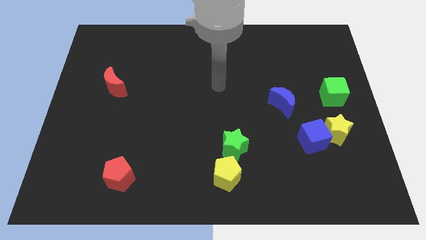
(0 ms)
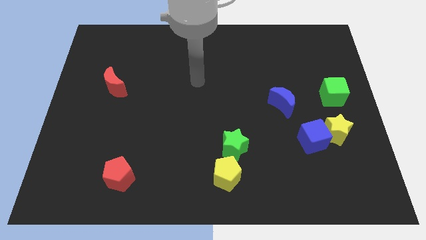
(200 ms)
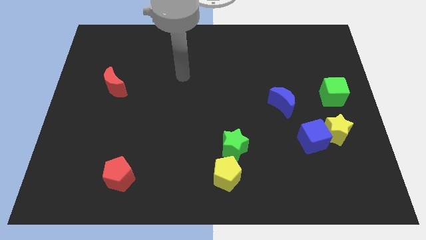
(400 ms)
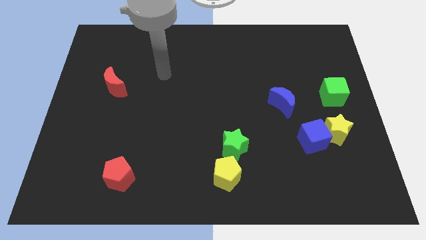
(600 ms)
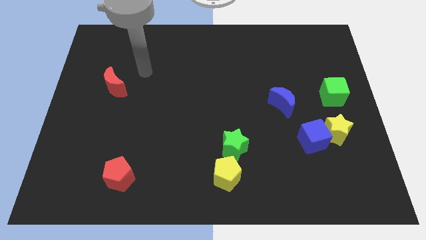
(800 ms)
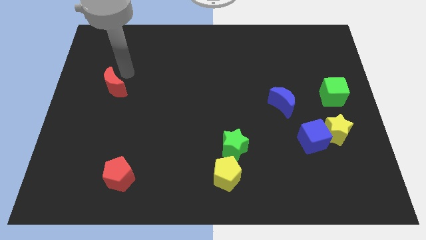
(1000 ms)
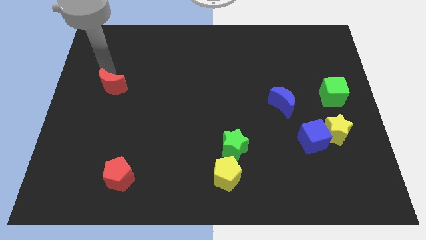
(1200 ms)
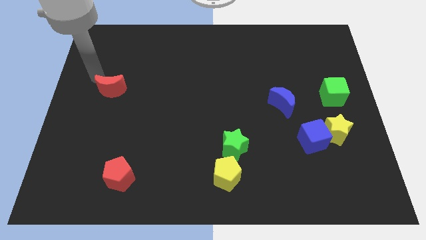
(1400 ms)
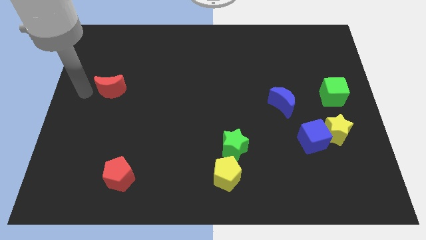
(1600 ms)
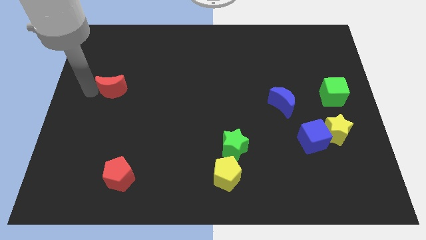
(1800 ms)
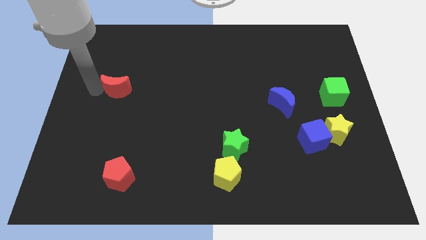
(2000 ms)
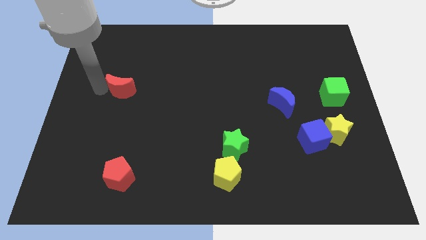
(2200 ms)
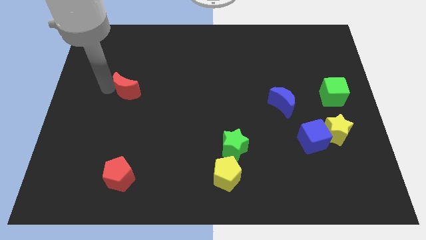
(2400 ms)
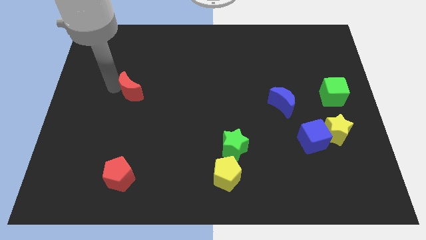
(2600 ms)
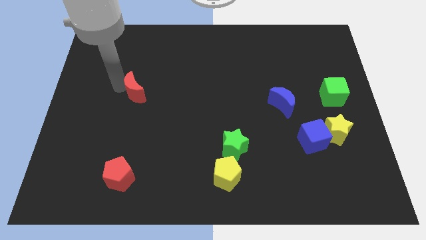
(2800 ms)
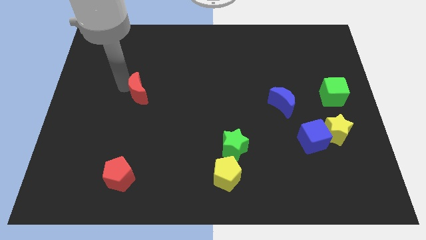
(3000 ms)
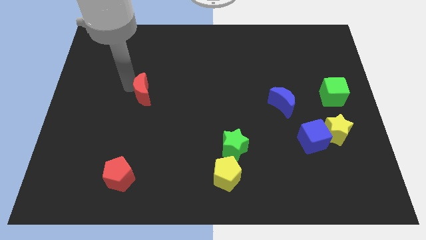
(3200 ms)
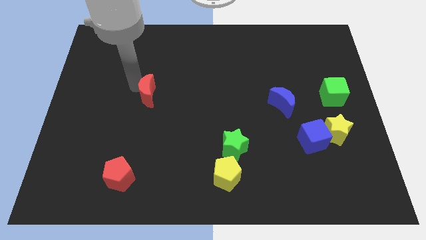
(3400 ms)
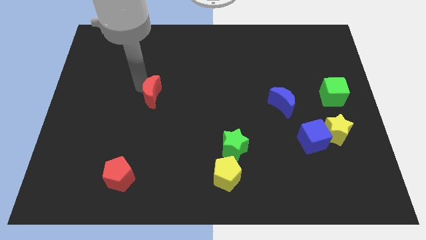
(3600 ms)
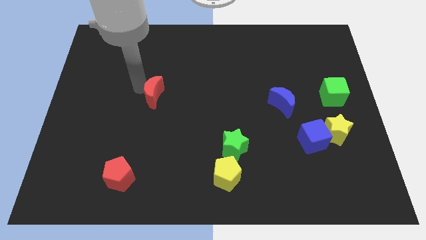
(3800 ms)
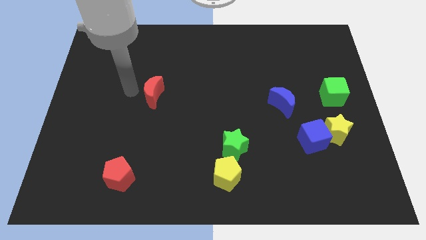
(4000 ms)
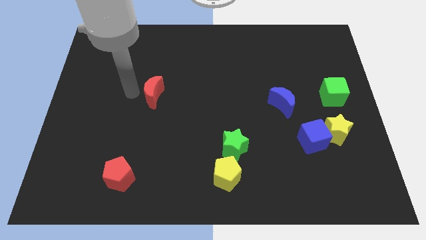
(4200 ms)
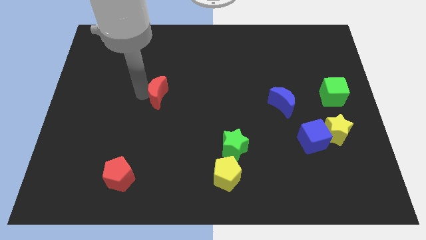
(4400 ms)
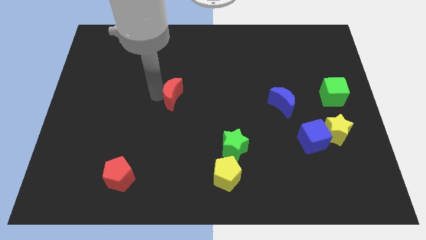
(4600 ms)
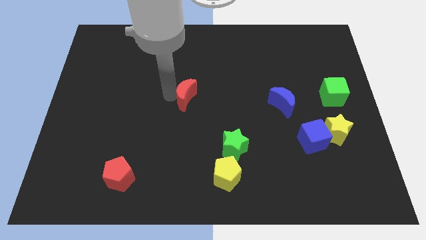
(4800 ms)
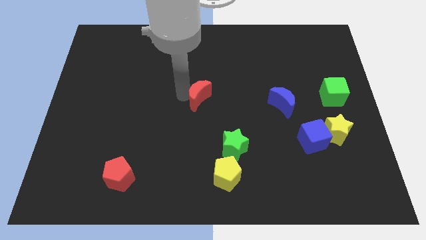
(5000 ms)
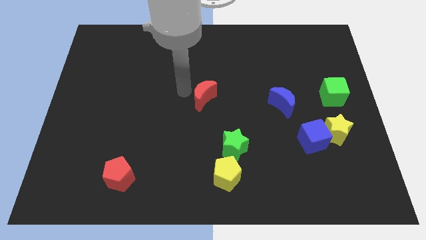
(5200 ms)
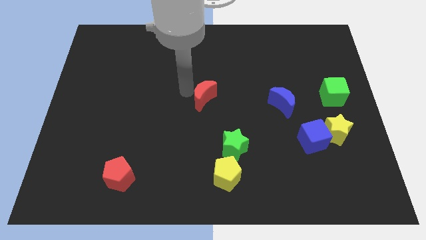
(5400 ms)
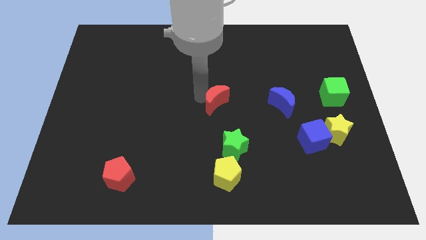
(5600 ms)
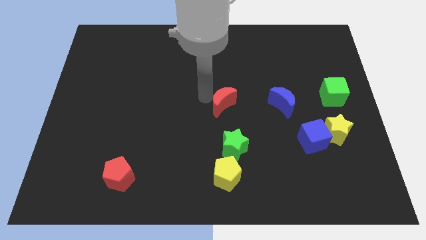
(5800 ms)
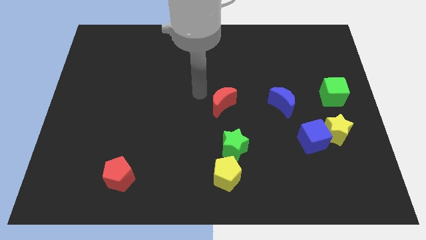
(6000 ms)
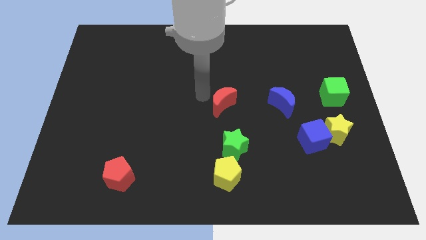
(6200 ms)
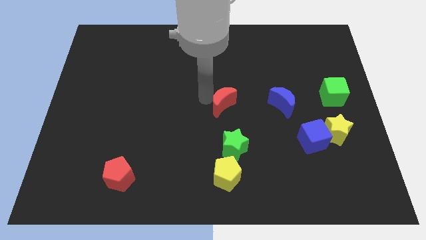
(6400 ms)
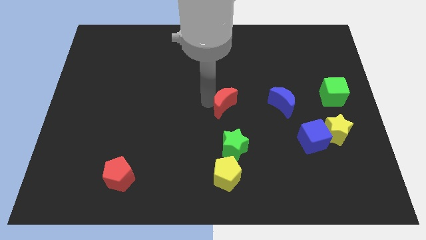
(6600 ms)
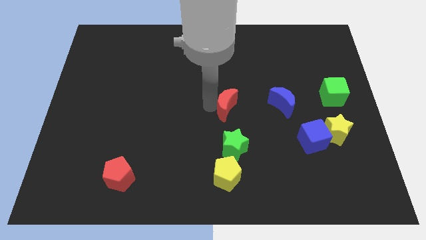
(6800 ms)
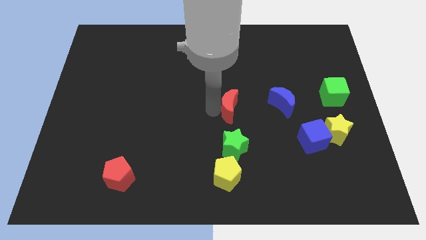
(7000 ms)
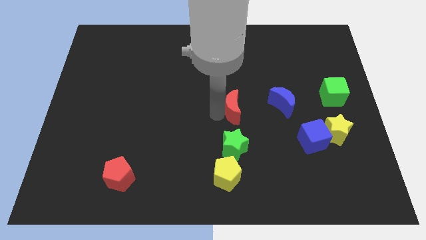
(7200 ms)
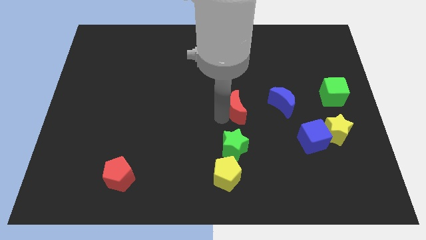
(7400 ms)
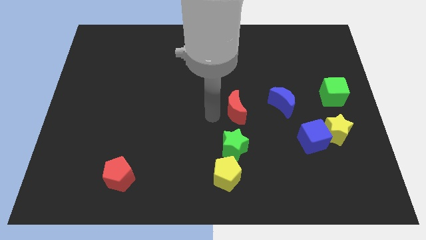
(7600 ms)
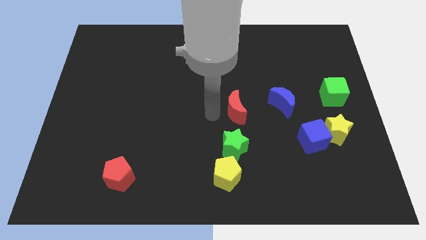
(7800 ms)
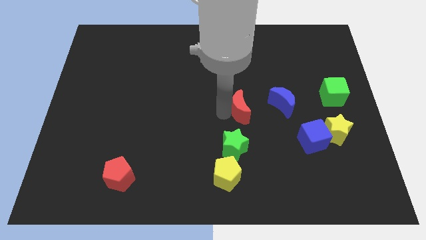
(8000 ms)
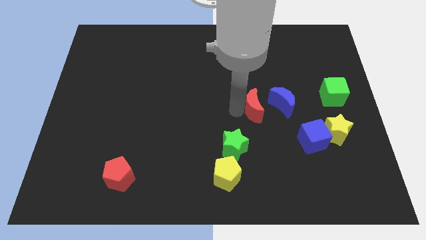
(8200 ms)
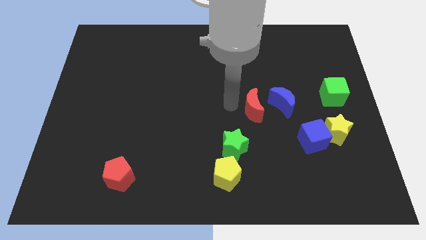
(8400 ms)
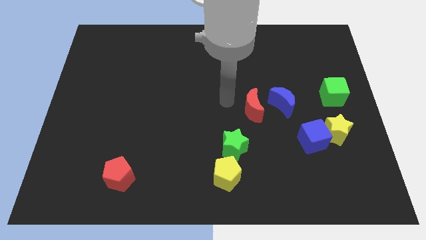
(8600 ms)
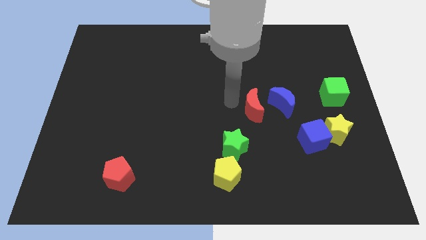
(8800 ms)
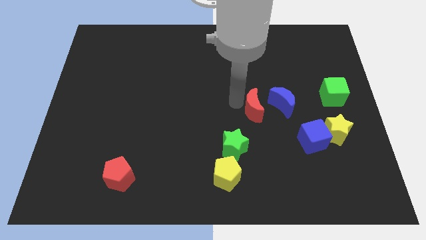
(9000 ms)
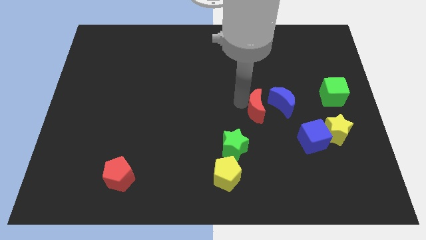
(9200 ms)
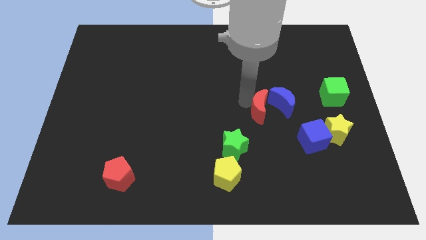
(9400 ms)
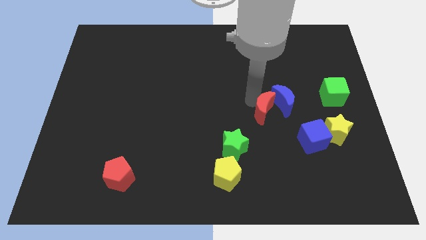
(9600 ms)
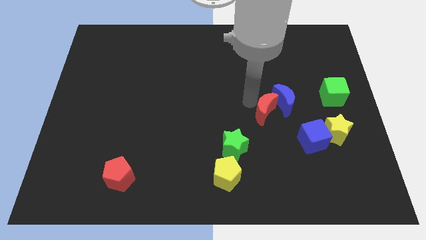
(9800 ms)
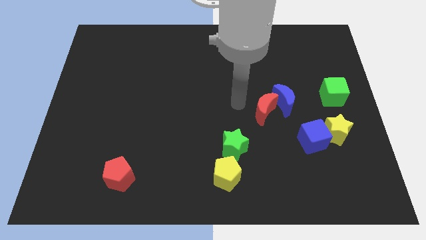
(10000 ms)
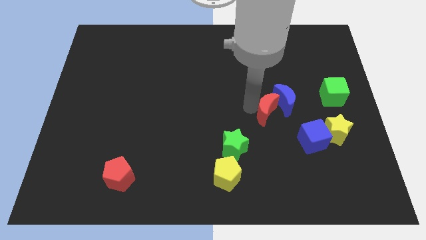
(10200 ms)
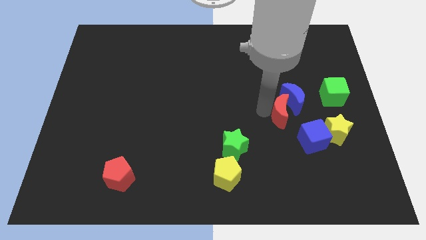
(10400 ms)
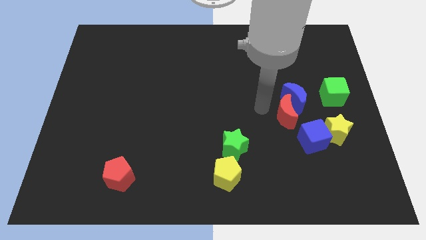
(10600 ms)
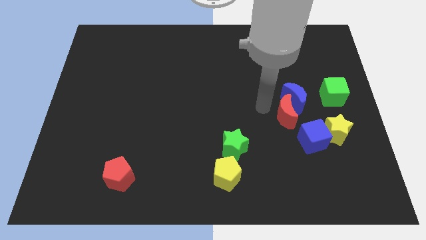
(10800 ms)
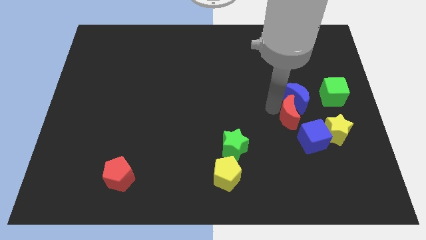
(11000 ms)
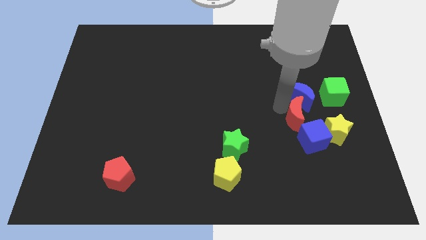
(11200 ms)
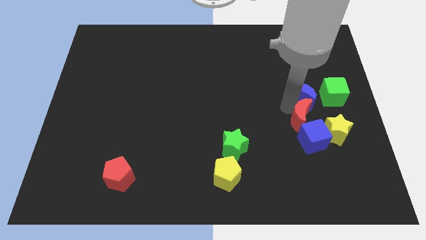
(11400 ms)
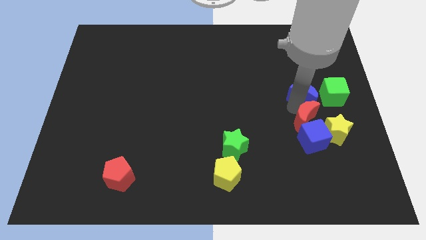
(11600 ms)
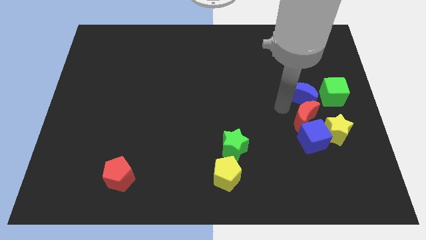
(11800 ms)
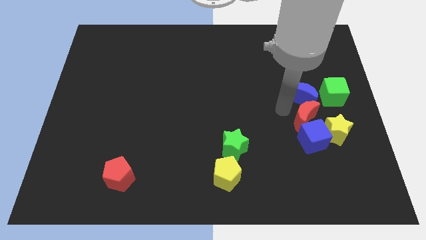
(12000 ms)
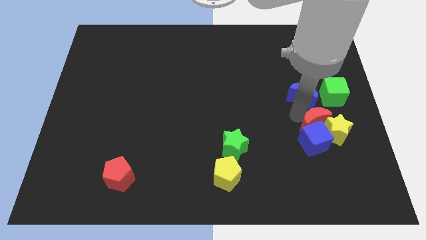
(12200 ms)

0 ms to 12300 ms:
put the red moon towards the yellow star
